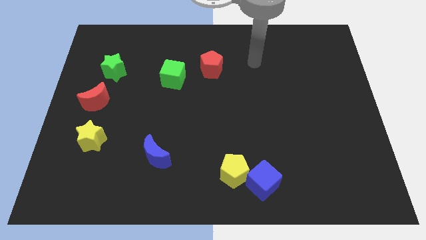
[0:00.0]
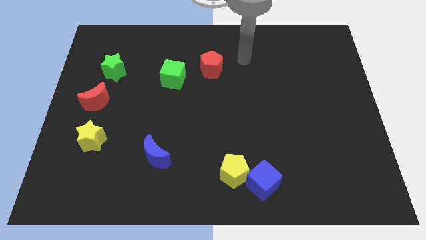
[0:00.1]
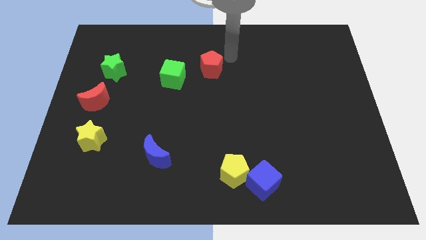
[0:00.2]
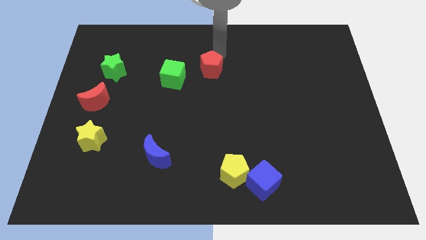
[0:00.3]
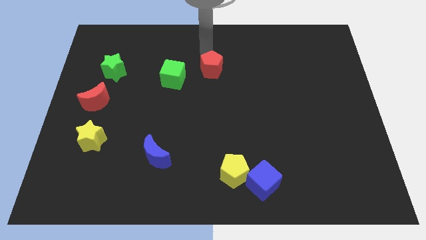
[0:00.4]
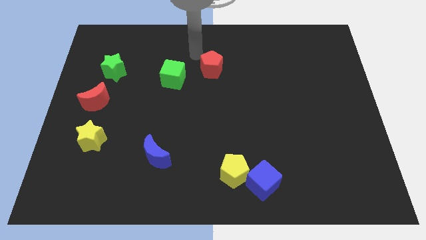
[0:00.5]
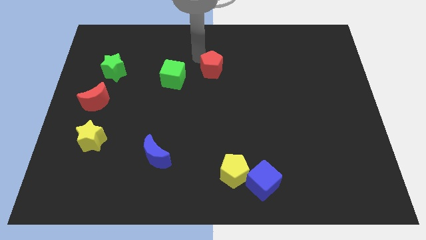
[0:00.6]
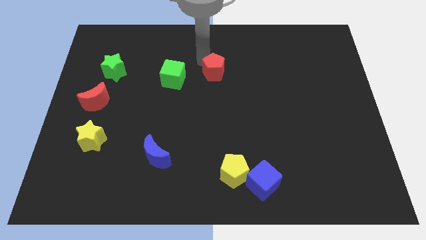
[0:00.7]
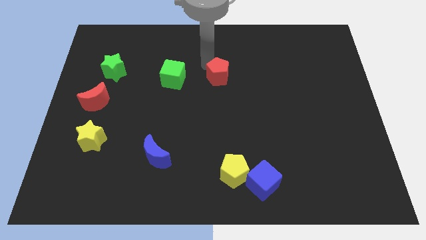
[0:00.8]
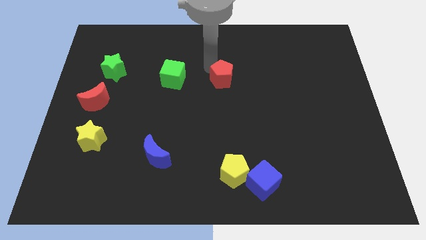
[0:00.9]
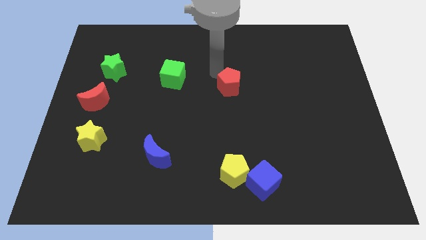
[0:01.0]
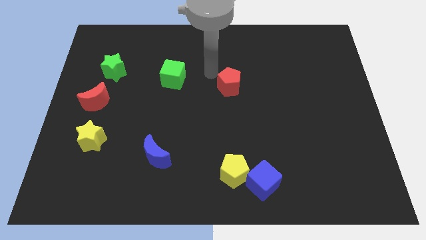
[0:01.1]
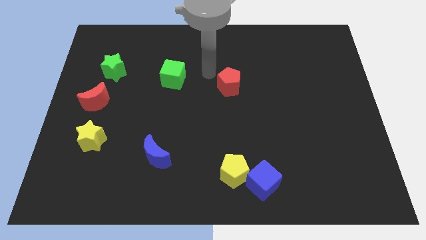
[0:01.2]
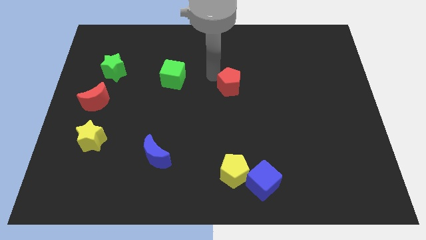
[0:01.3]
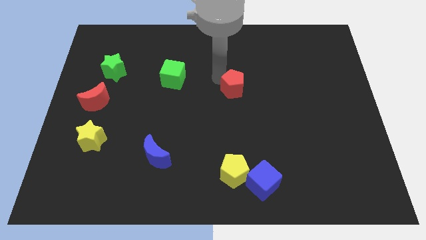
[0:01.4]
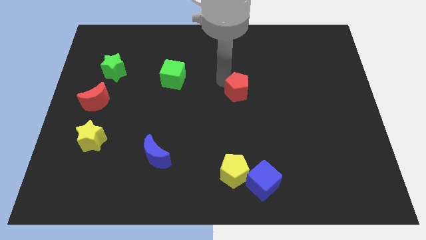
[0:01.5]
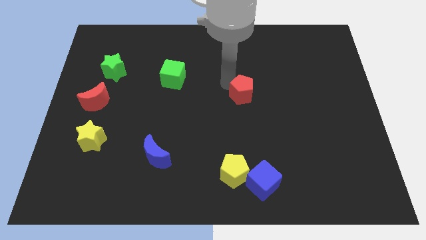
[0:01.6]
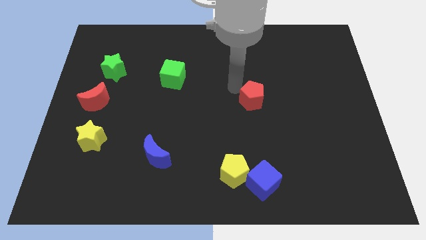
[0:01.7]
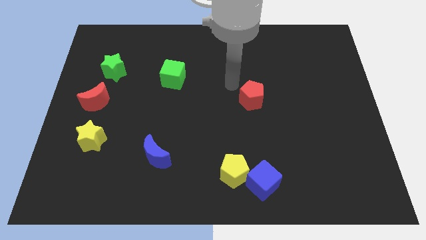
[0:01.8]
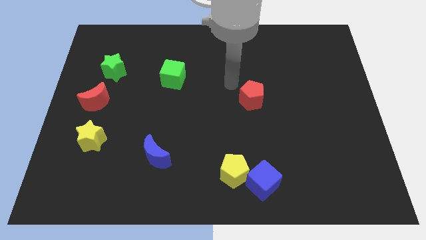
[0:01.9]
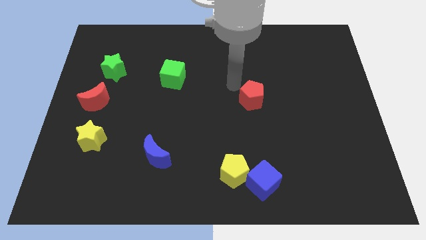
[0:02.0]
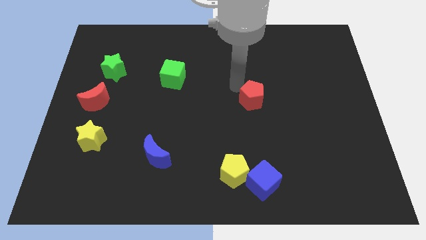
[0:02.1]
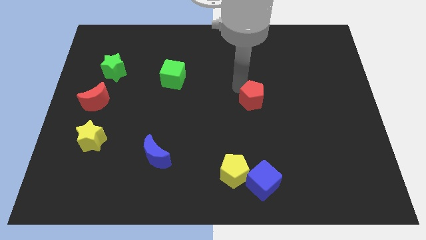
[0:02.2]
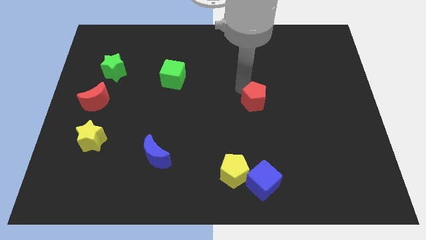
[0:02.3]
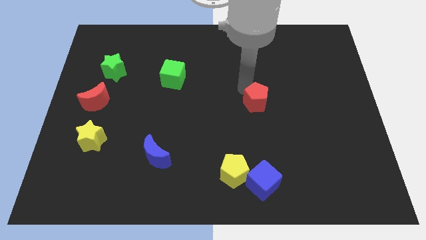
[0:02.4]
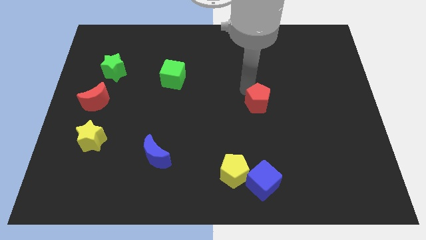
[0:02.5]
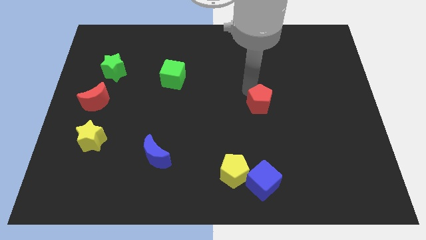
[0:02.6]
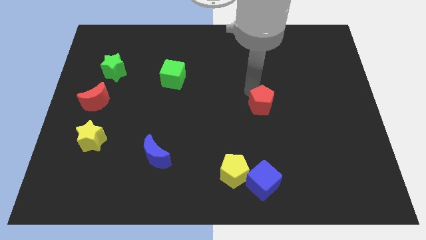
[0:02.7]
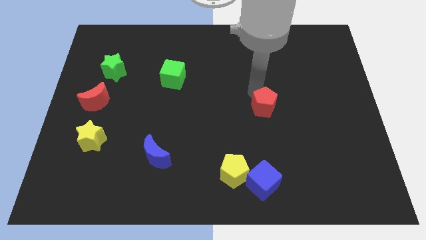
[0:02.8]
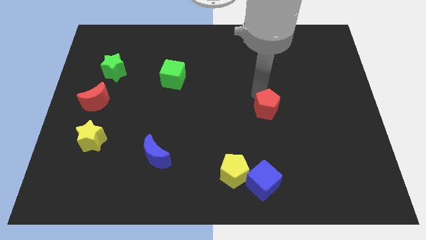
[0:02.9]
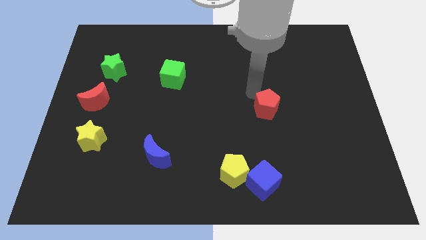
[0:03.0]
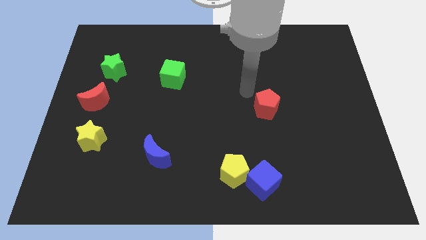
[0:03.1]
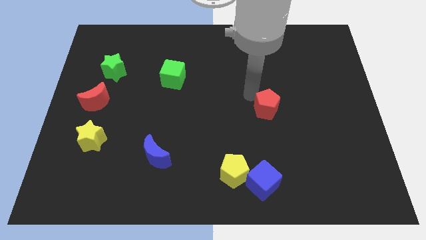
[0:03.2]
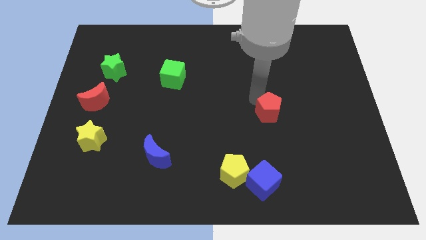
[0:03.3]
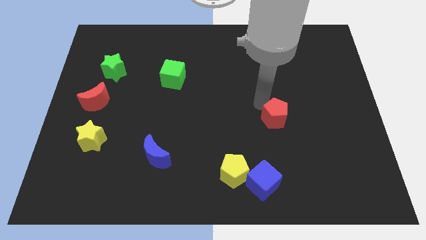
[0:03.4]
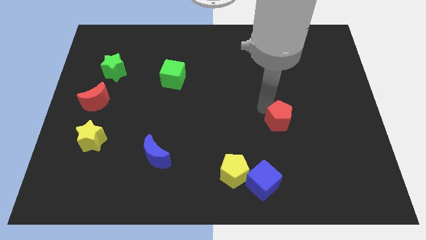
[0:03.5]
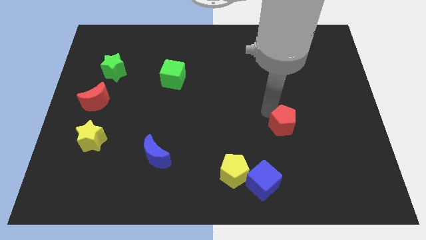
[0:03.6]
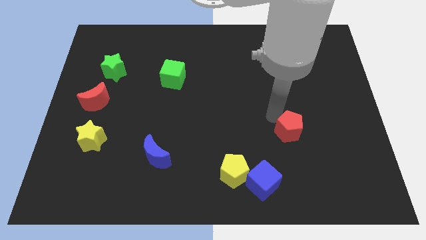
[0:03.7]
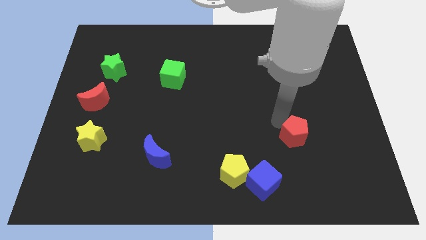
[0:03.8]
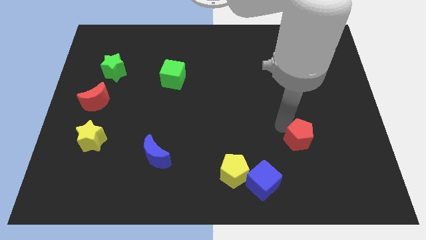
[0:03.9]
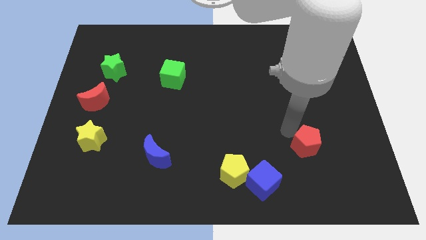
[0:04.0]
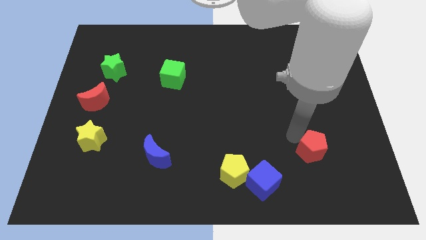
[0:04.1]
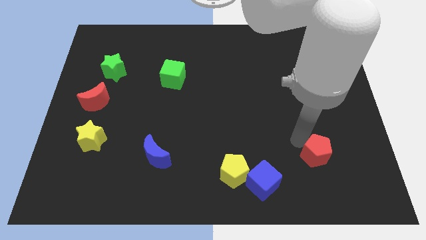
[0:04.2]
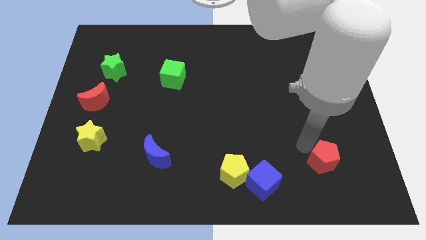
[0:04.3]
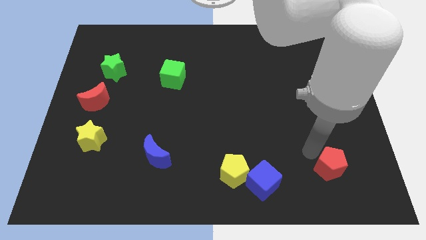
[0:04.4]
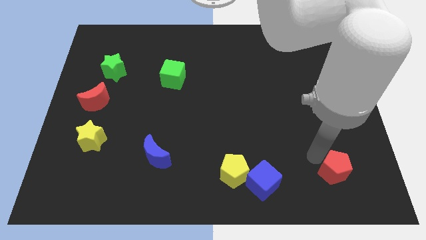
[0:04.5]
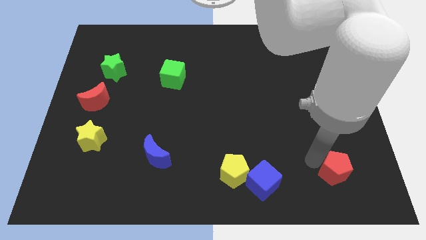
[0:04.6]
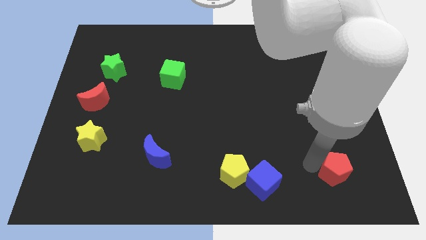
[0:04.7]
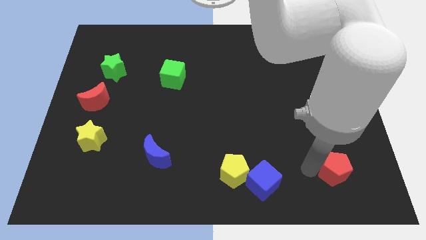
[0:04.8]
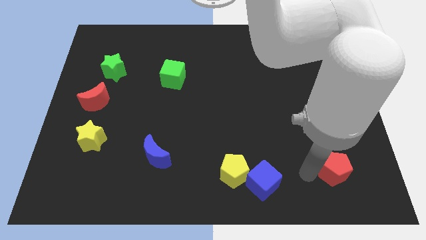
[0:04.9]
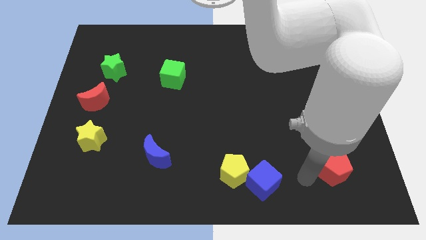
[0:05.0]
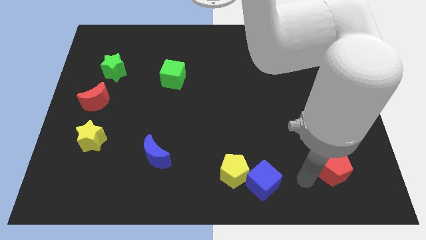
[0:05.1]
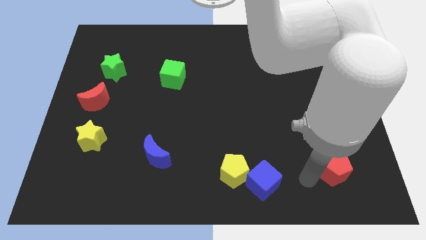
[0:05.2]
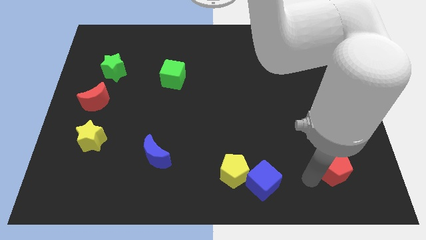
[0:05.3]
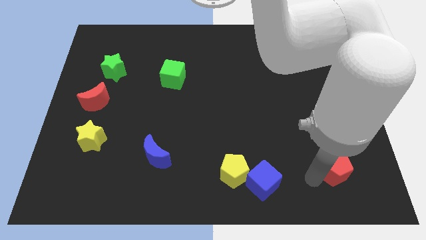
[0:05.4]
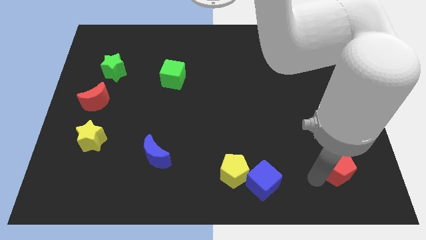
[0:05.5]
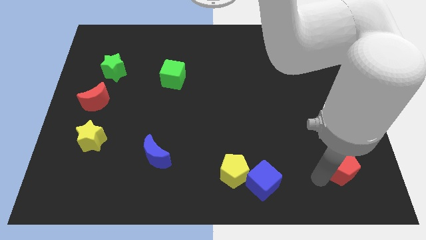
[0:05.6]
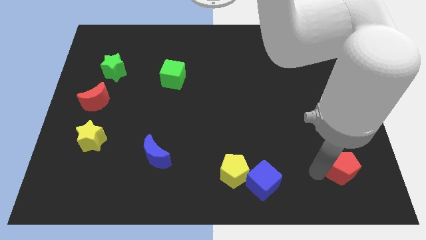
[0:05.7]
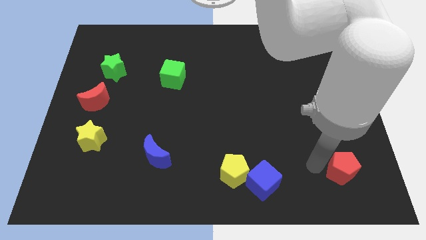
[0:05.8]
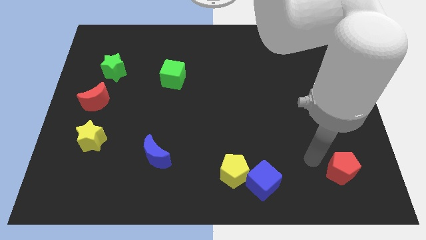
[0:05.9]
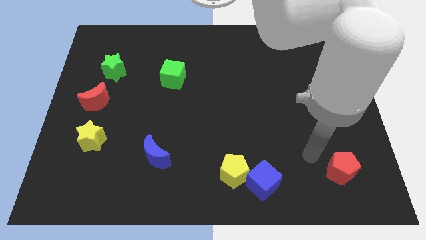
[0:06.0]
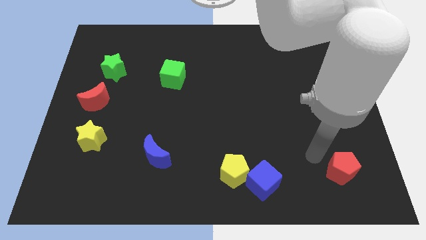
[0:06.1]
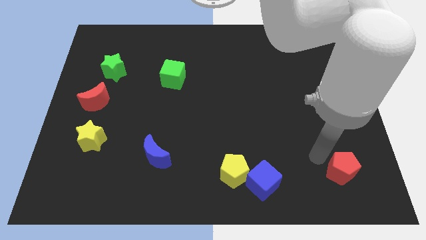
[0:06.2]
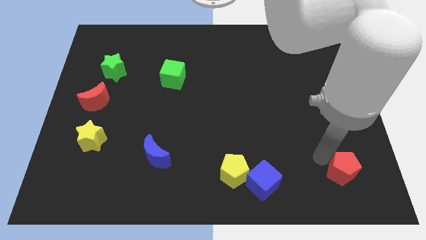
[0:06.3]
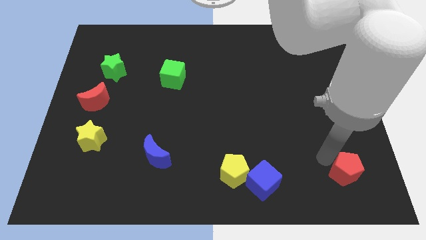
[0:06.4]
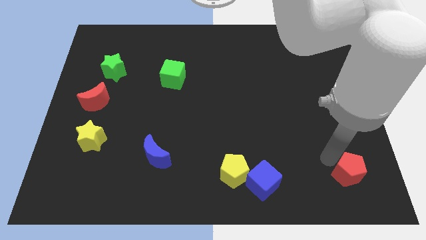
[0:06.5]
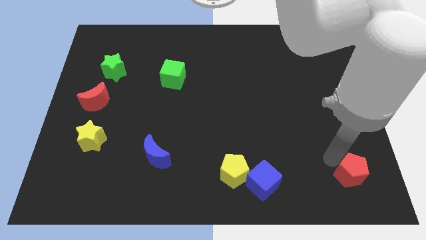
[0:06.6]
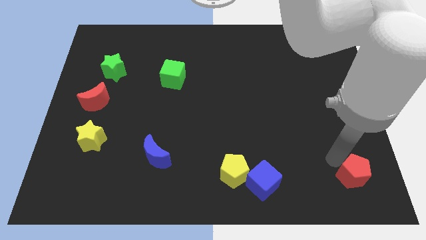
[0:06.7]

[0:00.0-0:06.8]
slide the red pentagon to the bottom right
